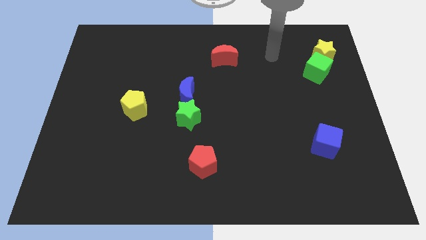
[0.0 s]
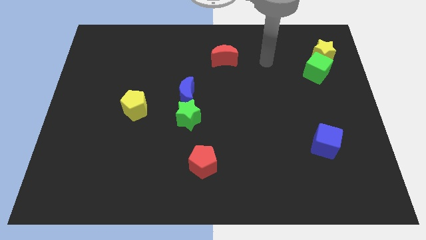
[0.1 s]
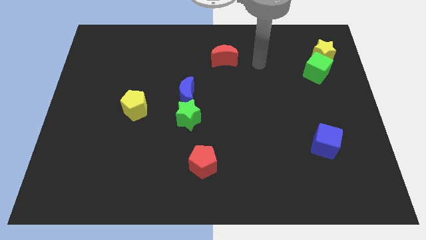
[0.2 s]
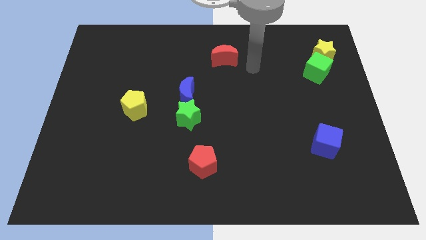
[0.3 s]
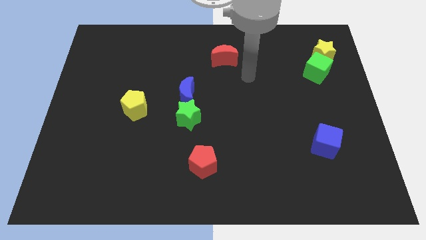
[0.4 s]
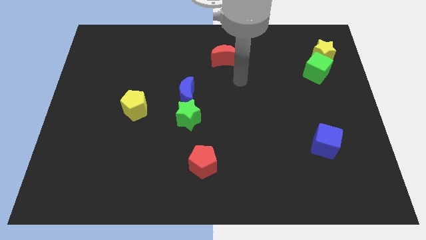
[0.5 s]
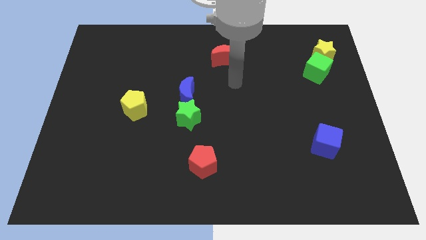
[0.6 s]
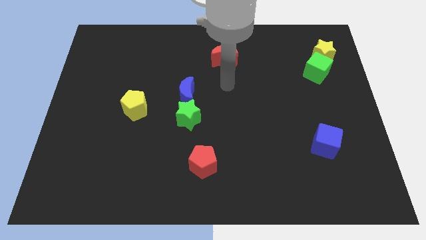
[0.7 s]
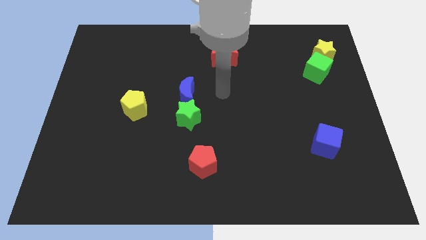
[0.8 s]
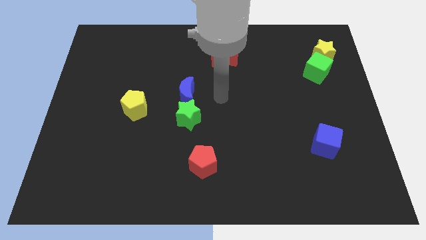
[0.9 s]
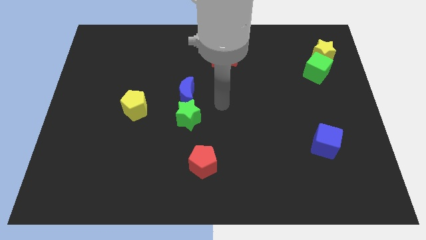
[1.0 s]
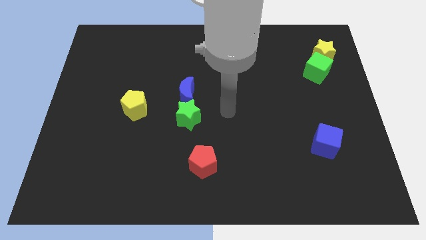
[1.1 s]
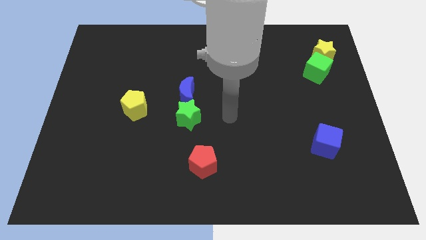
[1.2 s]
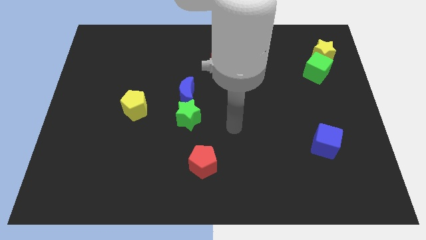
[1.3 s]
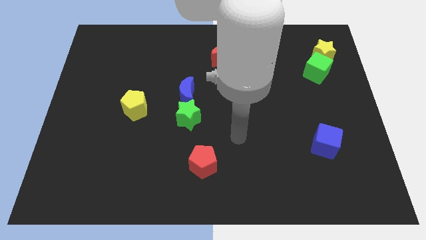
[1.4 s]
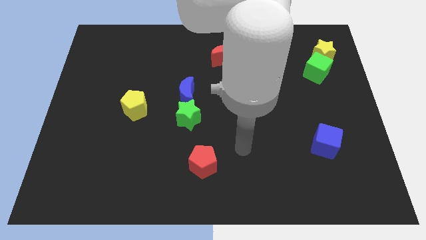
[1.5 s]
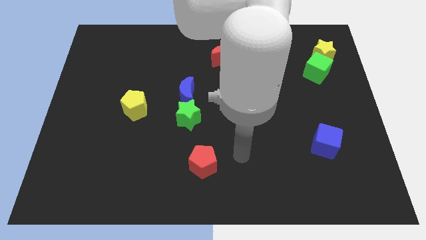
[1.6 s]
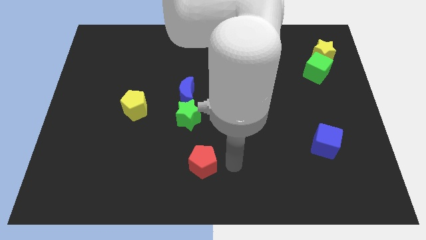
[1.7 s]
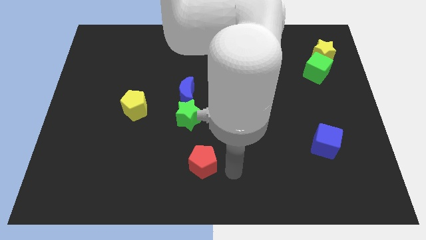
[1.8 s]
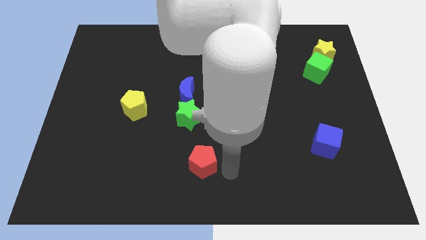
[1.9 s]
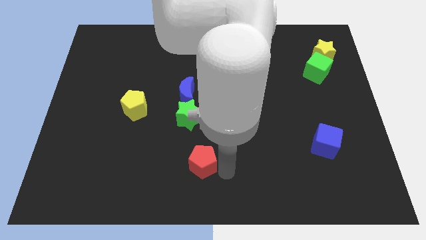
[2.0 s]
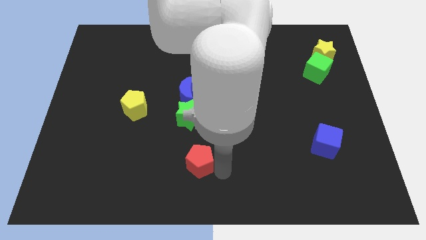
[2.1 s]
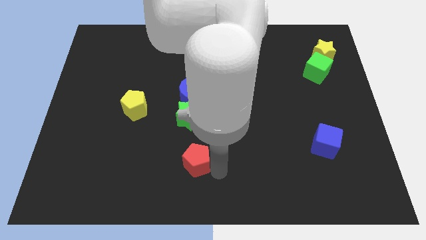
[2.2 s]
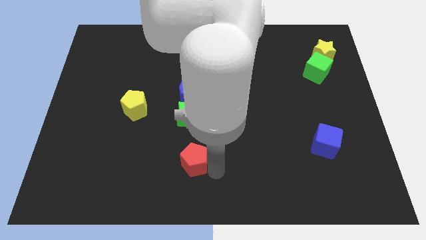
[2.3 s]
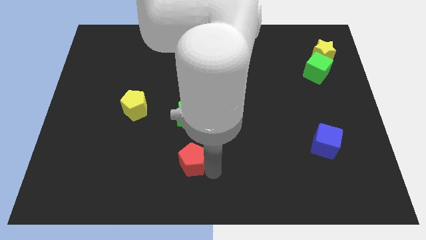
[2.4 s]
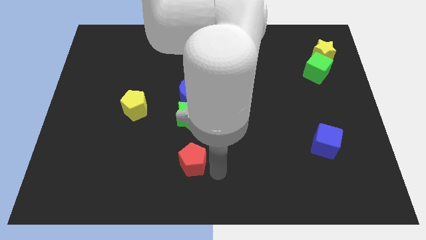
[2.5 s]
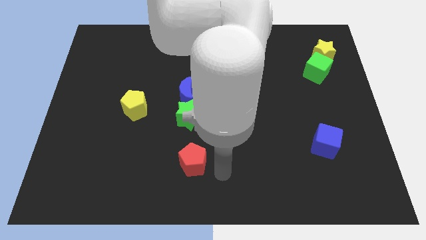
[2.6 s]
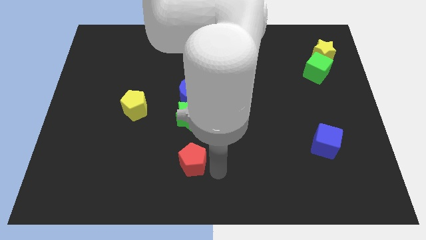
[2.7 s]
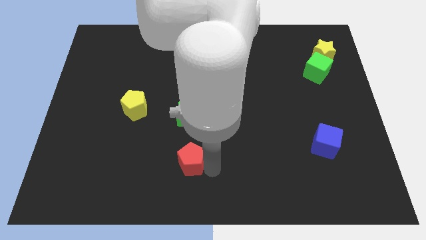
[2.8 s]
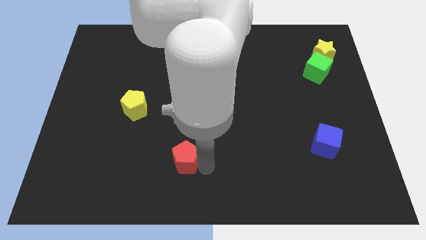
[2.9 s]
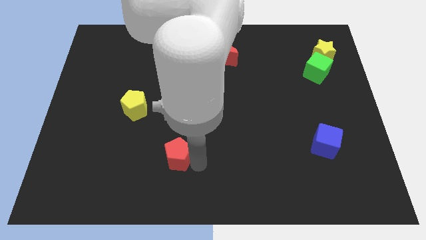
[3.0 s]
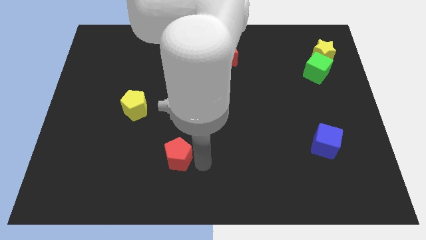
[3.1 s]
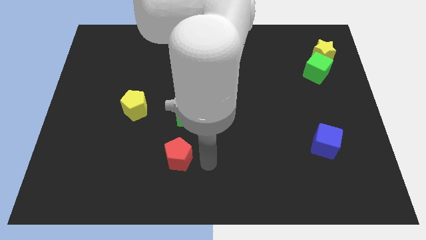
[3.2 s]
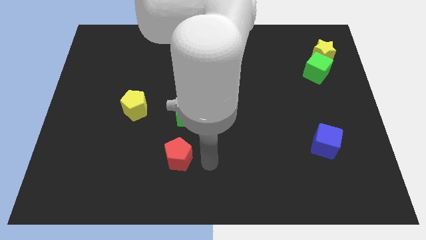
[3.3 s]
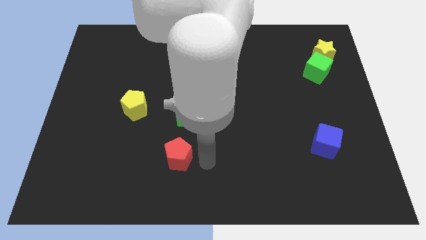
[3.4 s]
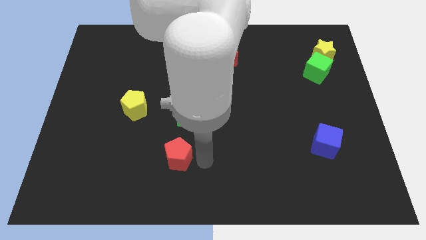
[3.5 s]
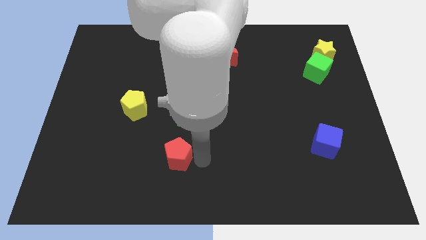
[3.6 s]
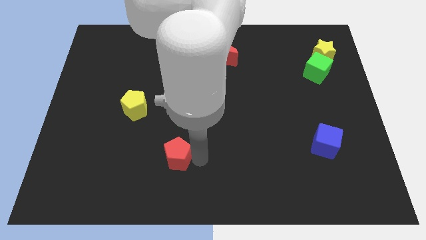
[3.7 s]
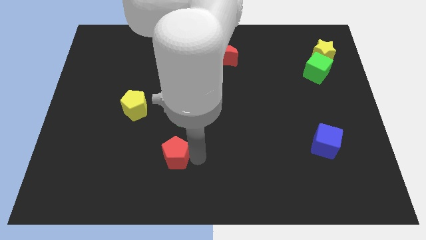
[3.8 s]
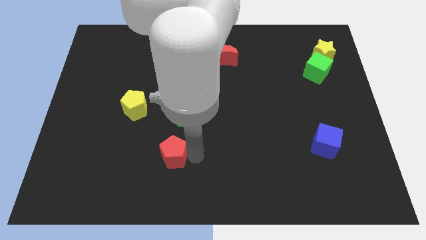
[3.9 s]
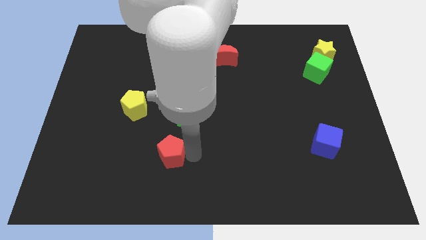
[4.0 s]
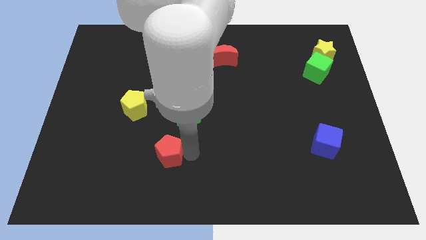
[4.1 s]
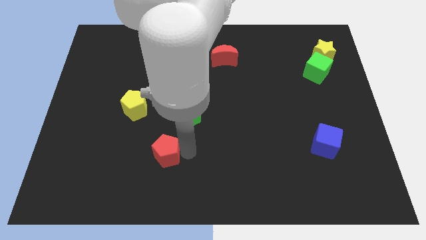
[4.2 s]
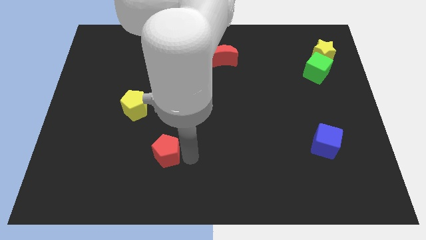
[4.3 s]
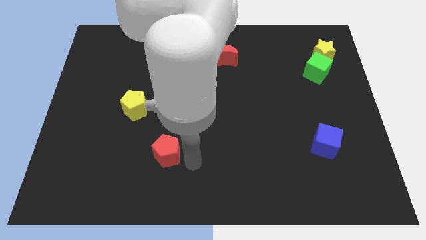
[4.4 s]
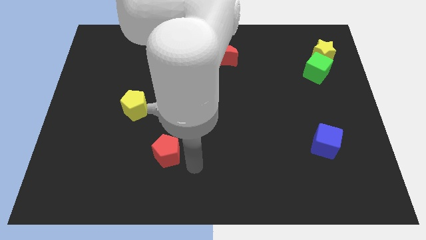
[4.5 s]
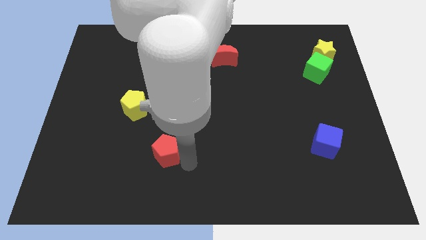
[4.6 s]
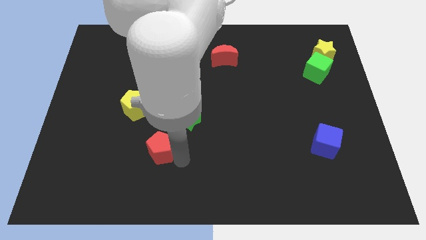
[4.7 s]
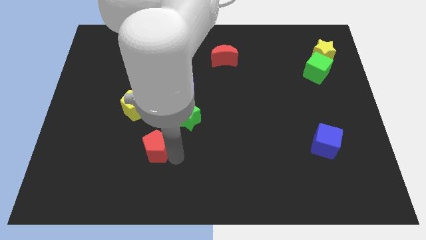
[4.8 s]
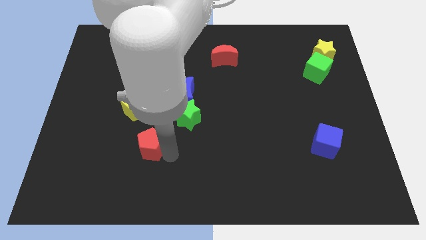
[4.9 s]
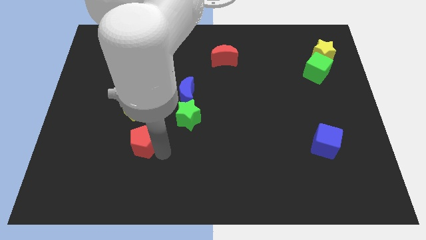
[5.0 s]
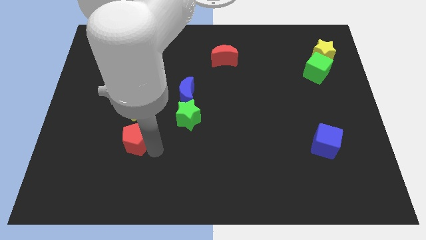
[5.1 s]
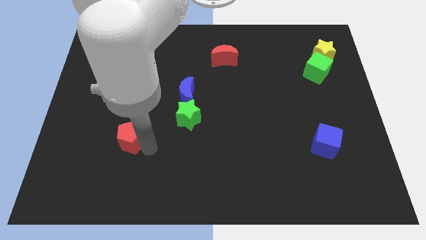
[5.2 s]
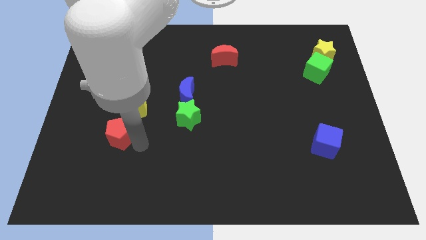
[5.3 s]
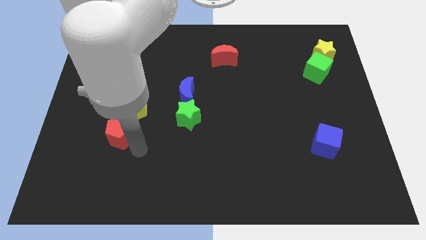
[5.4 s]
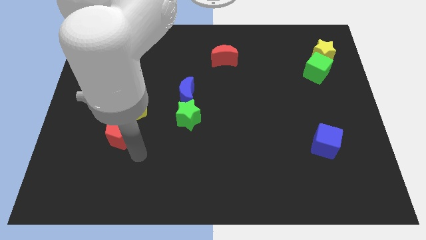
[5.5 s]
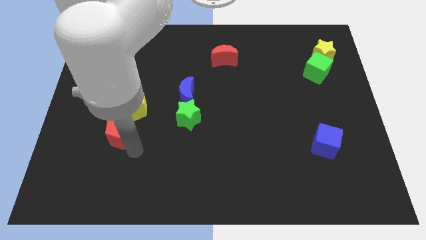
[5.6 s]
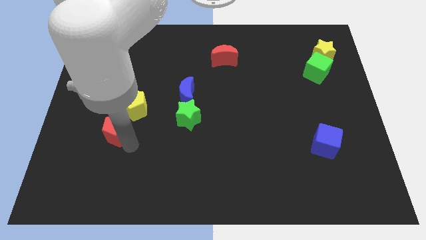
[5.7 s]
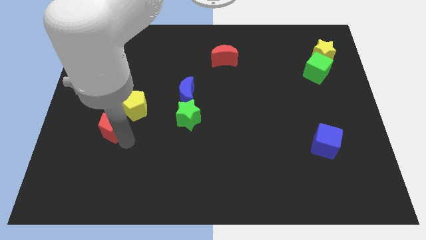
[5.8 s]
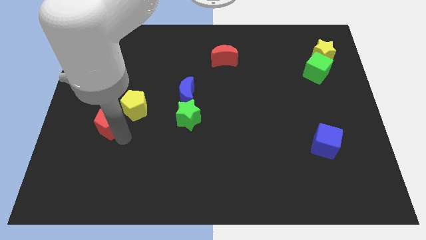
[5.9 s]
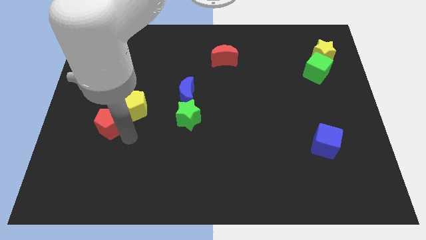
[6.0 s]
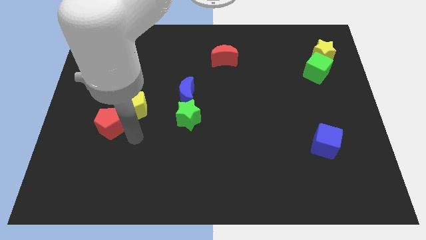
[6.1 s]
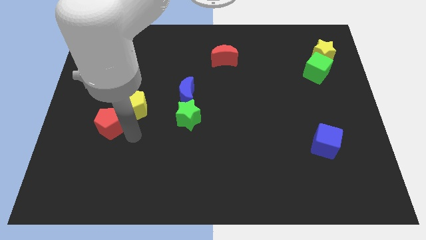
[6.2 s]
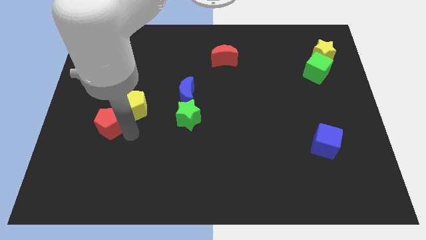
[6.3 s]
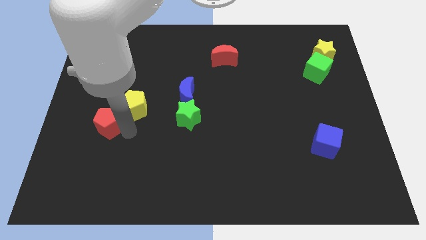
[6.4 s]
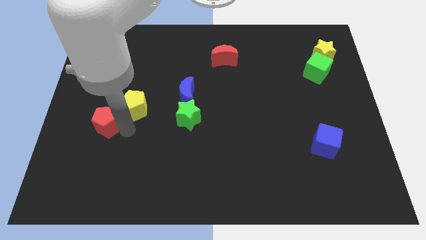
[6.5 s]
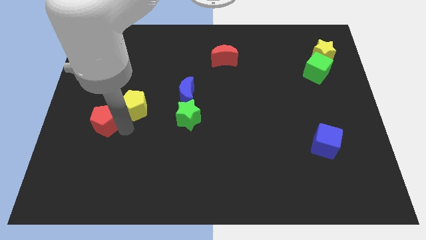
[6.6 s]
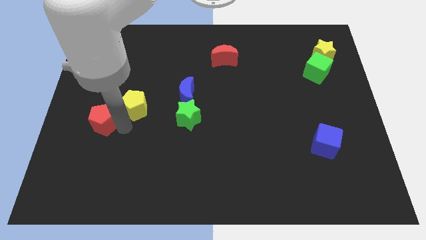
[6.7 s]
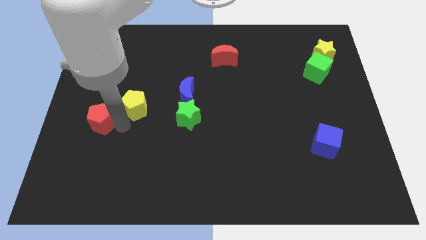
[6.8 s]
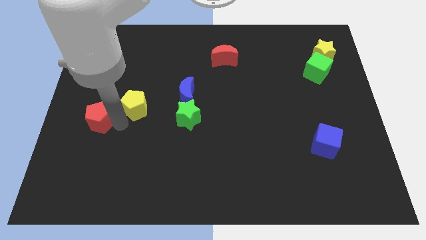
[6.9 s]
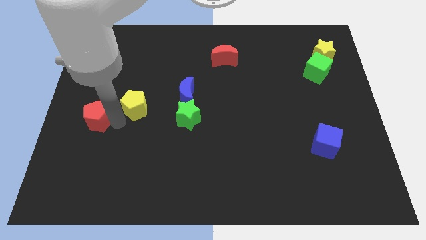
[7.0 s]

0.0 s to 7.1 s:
slide the red pentagon to the left side
